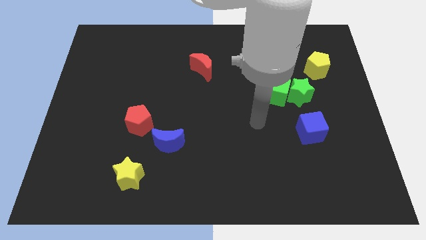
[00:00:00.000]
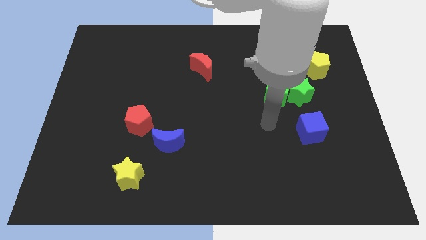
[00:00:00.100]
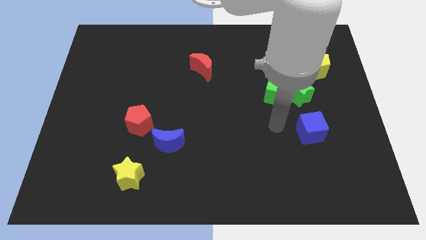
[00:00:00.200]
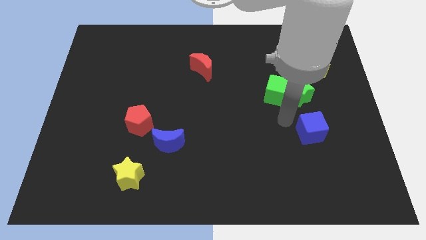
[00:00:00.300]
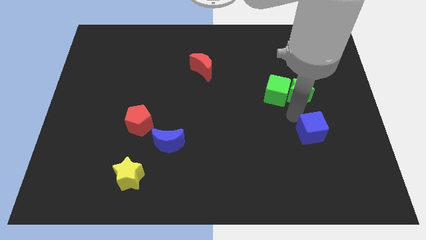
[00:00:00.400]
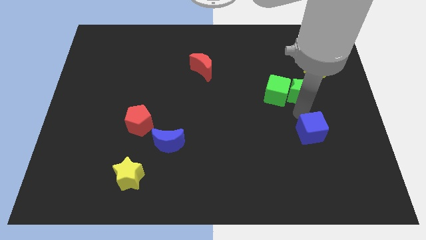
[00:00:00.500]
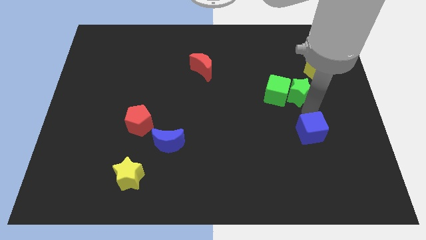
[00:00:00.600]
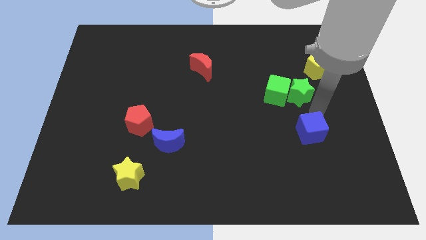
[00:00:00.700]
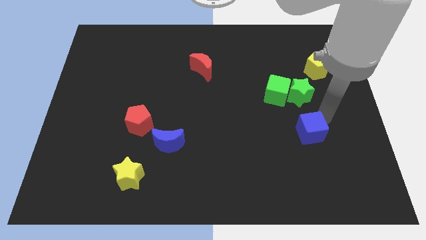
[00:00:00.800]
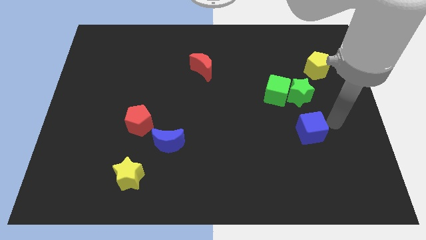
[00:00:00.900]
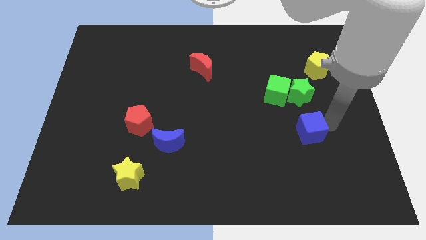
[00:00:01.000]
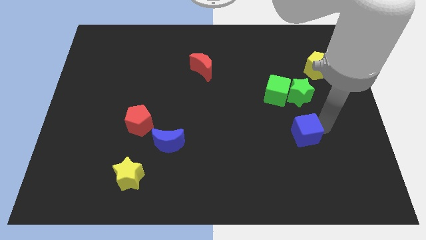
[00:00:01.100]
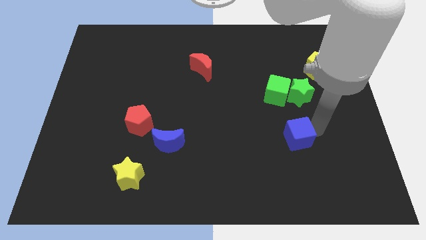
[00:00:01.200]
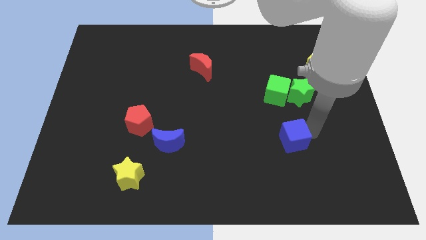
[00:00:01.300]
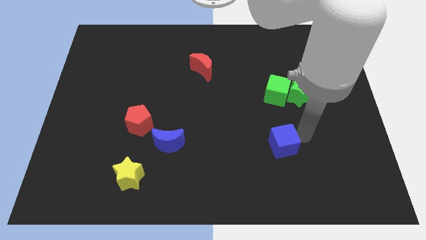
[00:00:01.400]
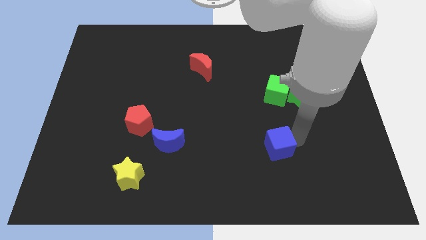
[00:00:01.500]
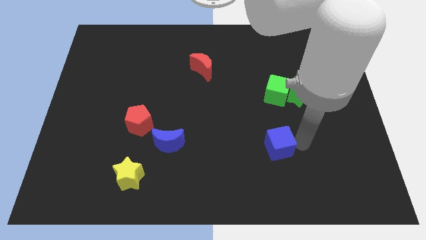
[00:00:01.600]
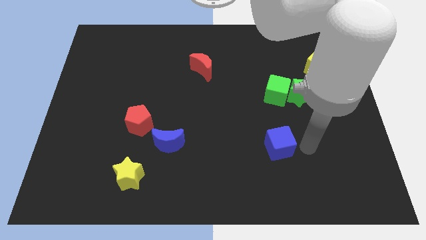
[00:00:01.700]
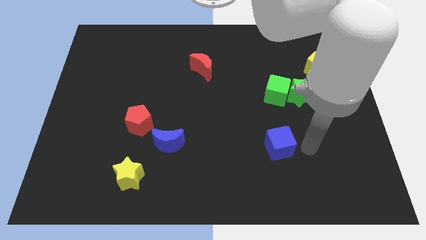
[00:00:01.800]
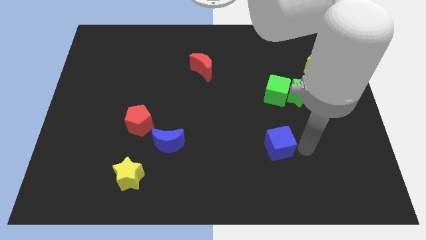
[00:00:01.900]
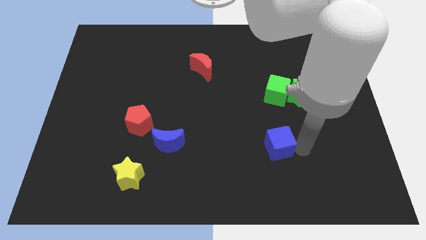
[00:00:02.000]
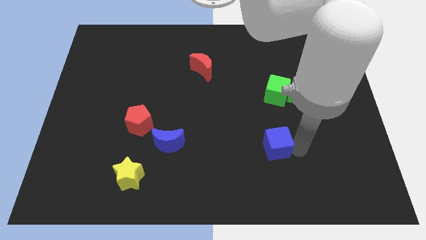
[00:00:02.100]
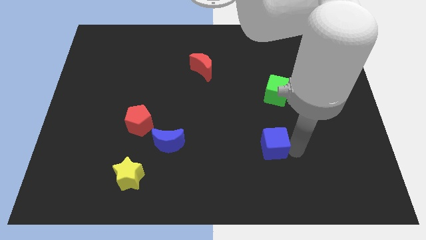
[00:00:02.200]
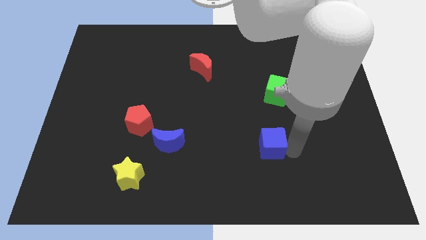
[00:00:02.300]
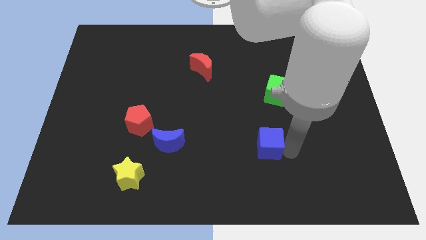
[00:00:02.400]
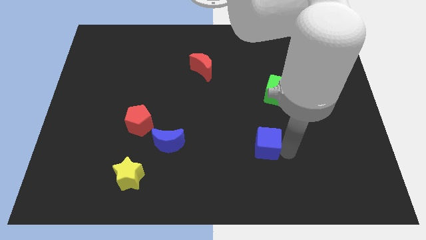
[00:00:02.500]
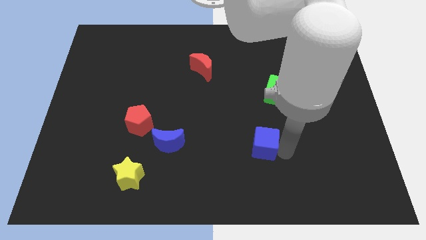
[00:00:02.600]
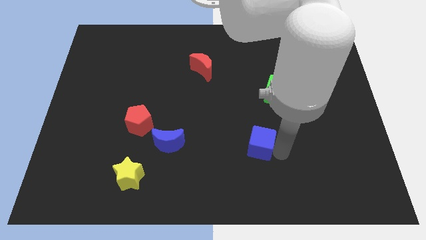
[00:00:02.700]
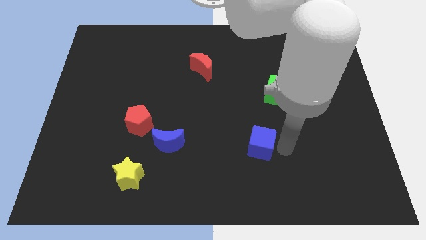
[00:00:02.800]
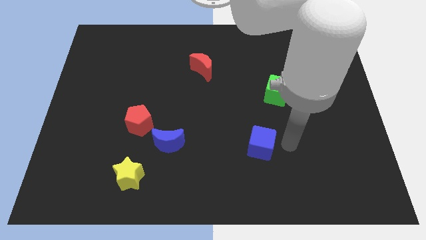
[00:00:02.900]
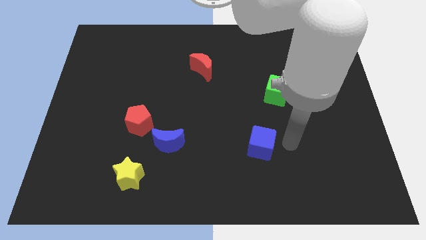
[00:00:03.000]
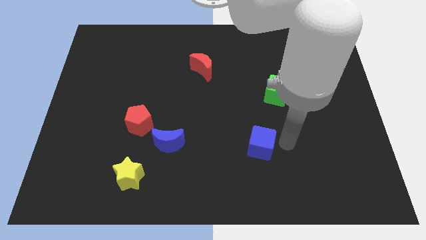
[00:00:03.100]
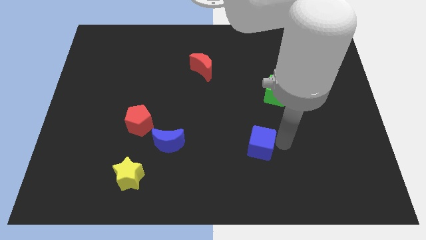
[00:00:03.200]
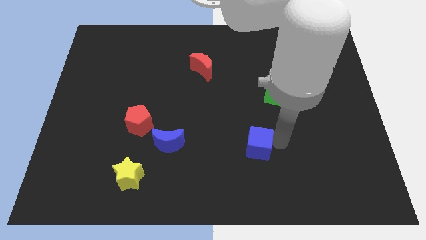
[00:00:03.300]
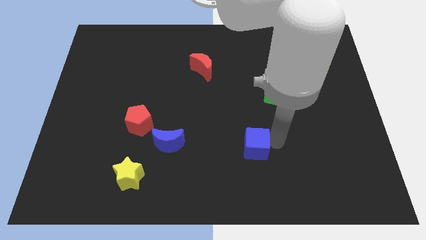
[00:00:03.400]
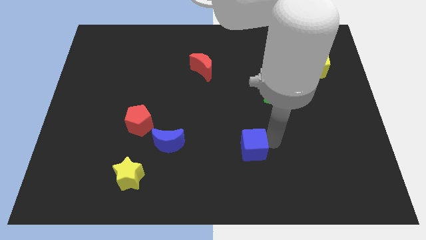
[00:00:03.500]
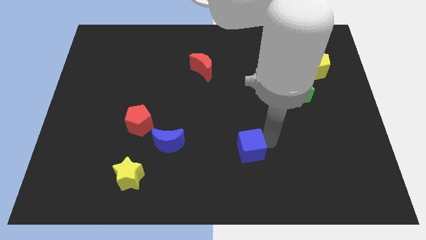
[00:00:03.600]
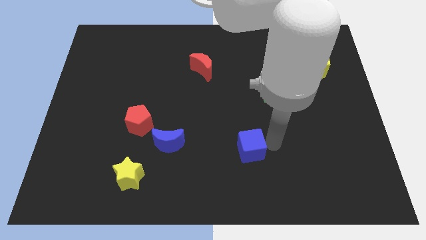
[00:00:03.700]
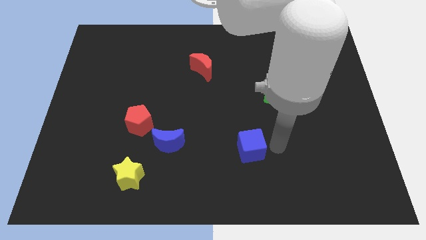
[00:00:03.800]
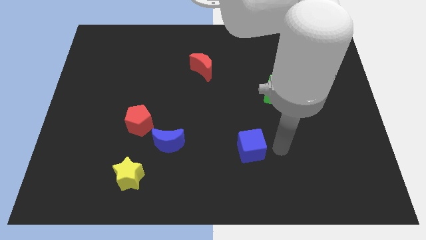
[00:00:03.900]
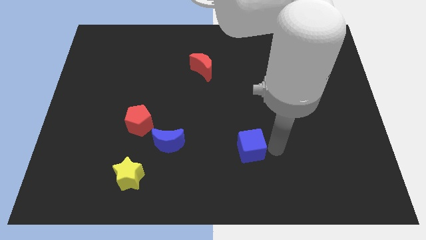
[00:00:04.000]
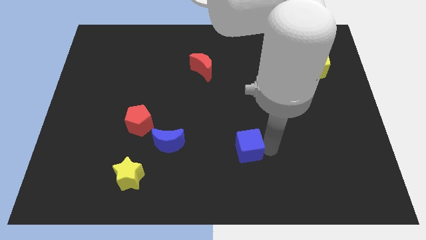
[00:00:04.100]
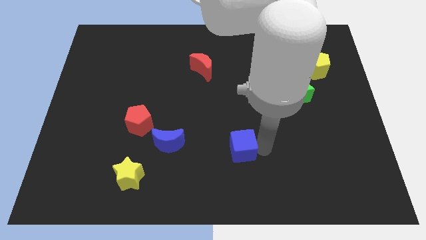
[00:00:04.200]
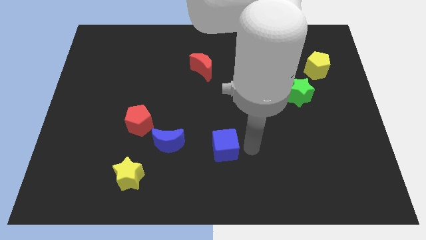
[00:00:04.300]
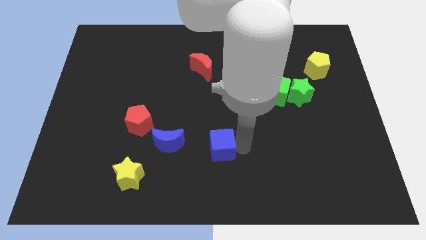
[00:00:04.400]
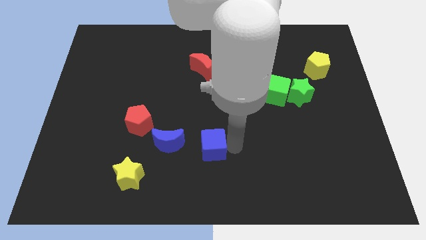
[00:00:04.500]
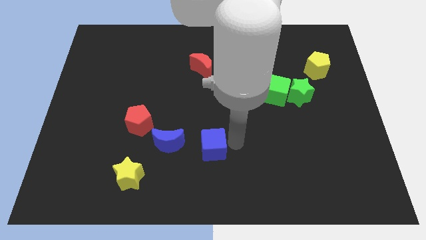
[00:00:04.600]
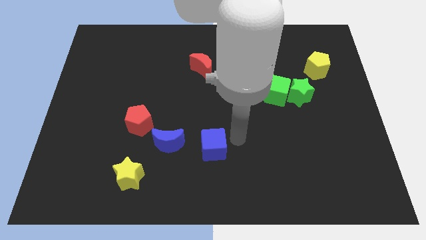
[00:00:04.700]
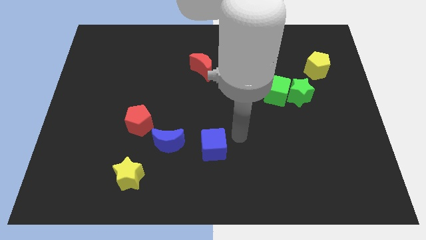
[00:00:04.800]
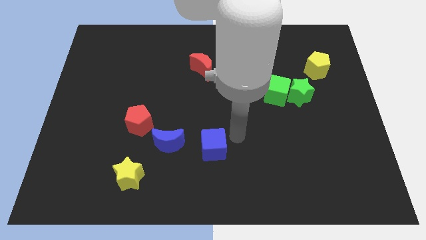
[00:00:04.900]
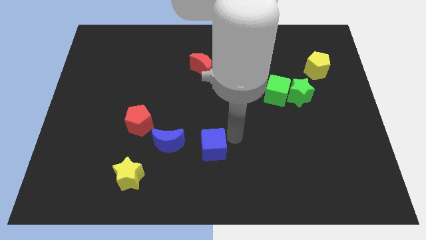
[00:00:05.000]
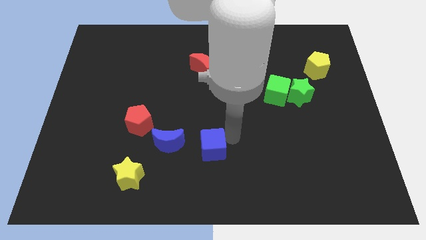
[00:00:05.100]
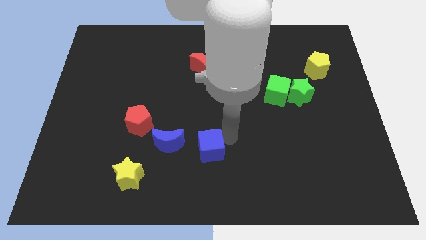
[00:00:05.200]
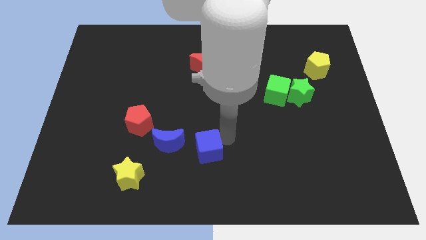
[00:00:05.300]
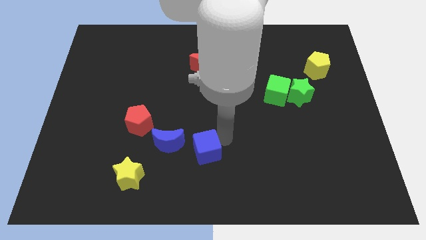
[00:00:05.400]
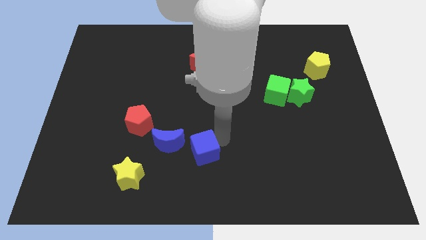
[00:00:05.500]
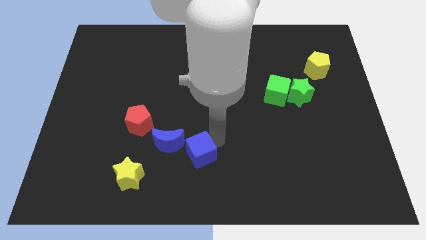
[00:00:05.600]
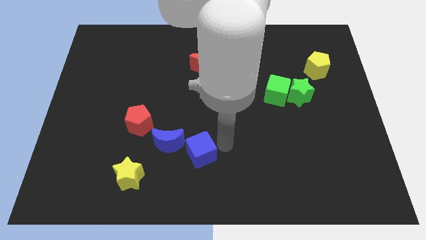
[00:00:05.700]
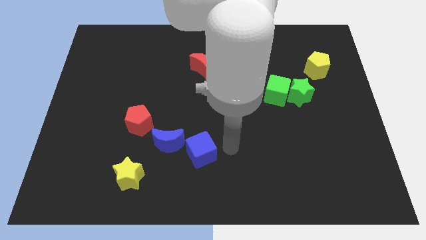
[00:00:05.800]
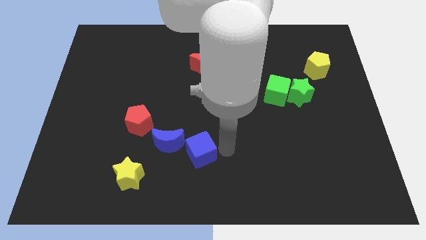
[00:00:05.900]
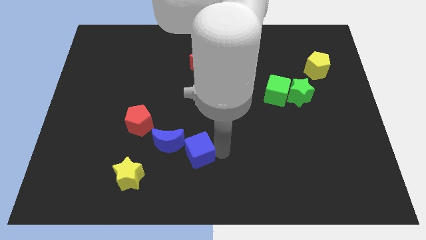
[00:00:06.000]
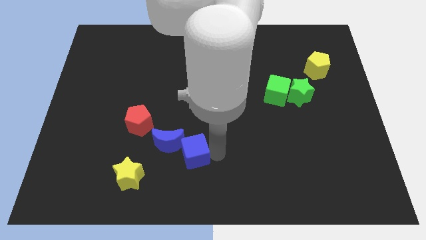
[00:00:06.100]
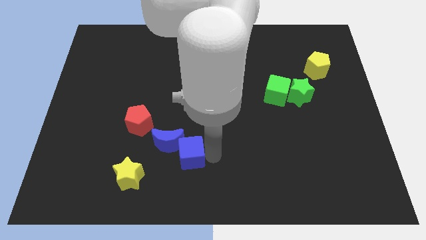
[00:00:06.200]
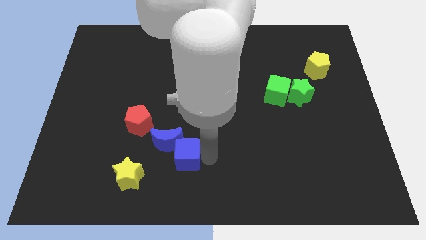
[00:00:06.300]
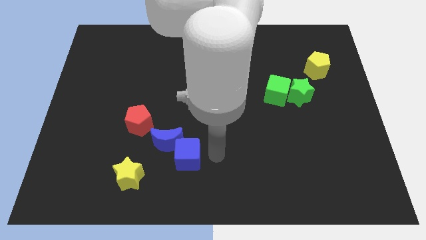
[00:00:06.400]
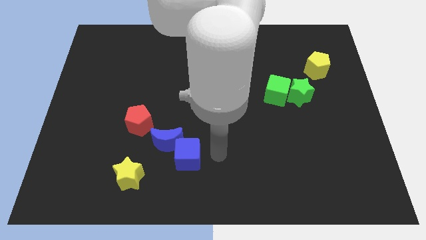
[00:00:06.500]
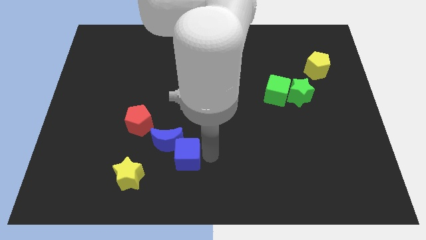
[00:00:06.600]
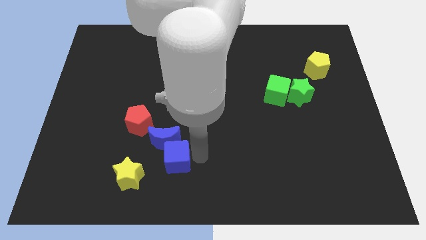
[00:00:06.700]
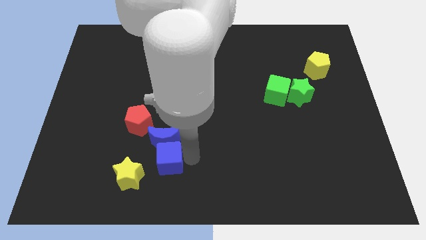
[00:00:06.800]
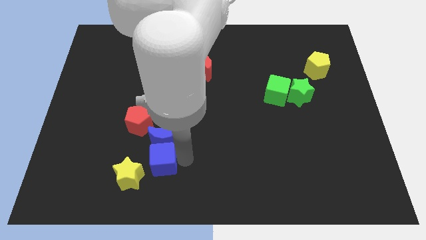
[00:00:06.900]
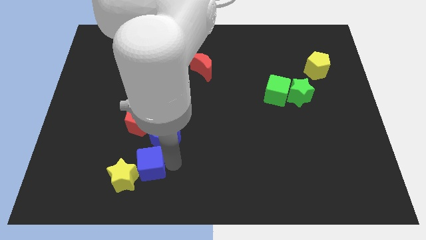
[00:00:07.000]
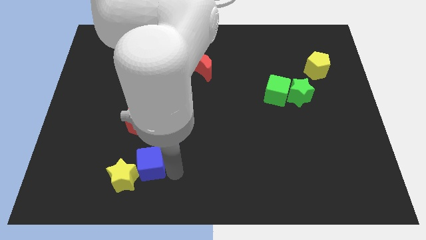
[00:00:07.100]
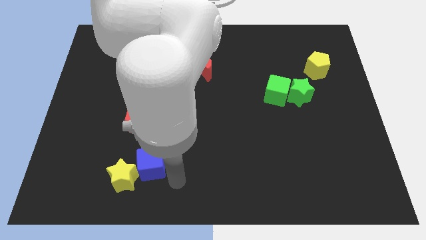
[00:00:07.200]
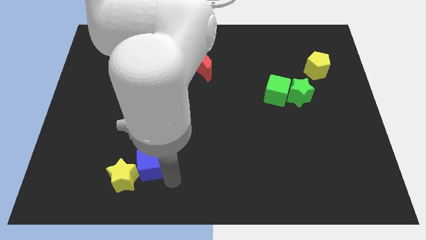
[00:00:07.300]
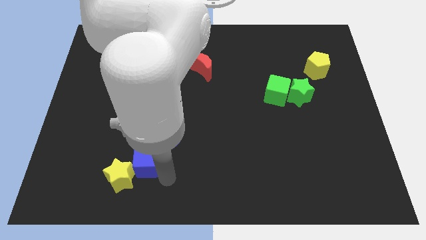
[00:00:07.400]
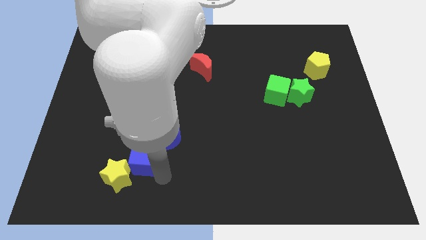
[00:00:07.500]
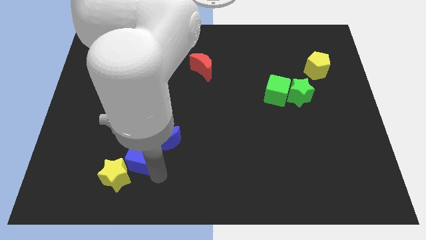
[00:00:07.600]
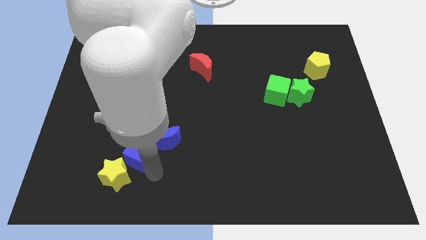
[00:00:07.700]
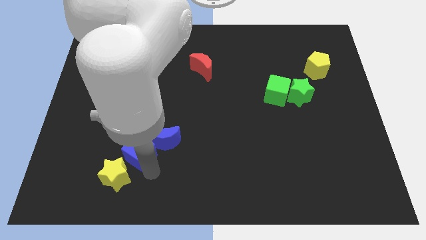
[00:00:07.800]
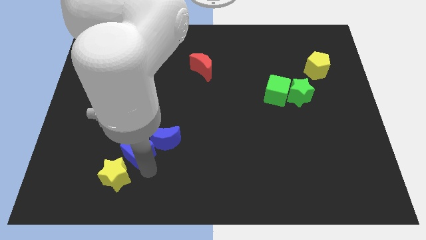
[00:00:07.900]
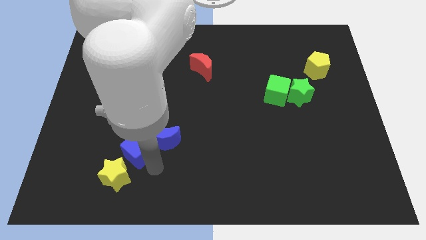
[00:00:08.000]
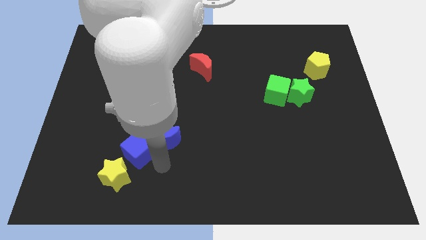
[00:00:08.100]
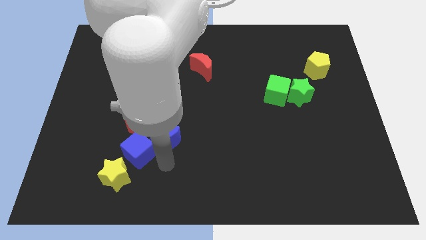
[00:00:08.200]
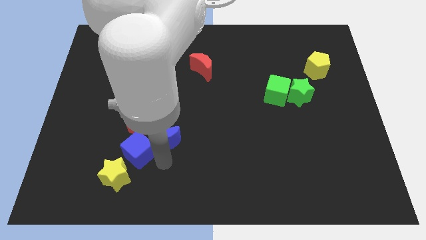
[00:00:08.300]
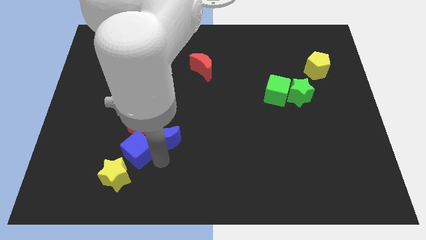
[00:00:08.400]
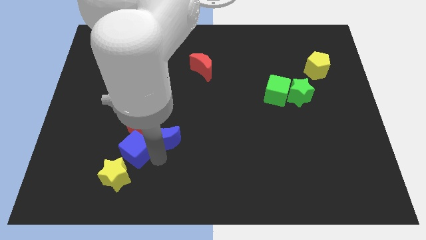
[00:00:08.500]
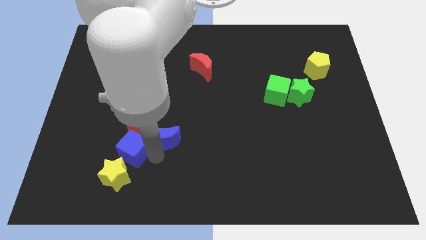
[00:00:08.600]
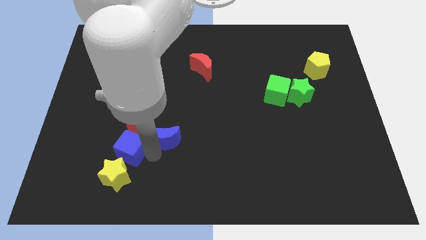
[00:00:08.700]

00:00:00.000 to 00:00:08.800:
move the blue cube to the bottom left side of the red pentagon
